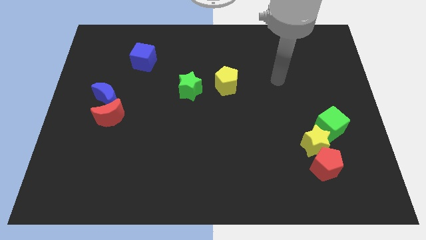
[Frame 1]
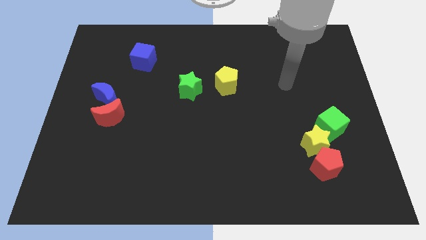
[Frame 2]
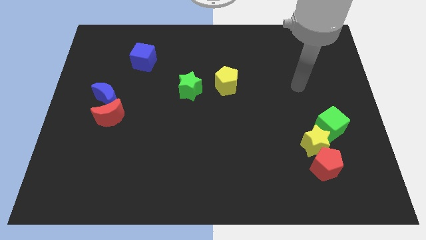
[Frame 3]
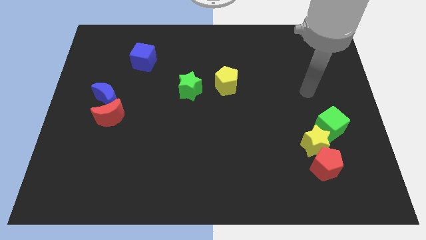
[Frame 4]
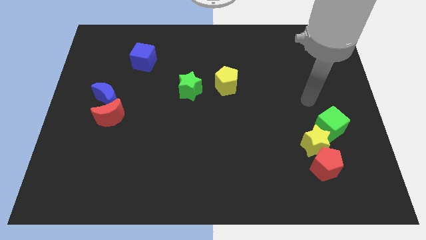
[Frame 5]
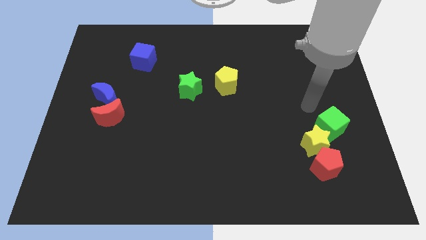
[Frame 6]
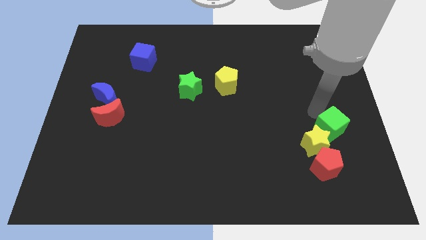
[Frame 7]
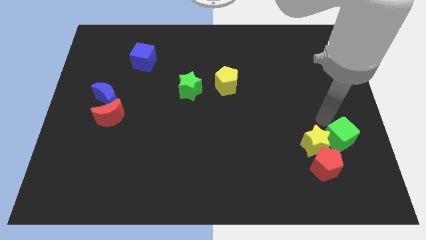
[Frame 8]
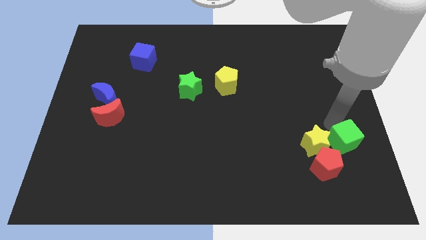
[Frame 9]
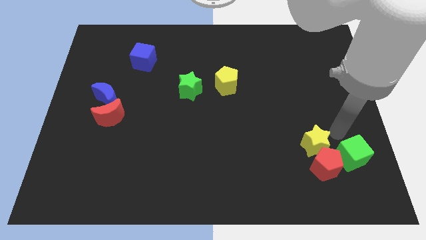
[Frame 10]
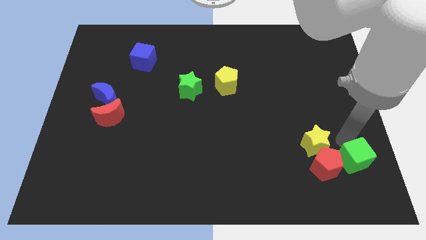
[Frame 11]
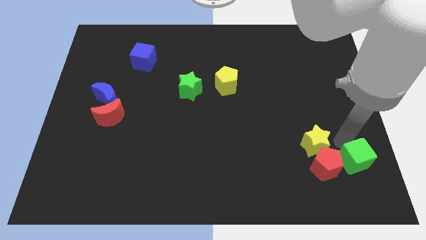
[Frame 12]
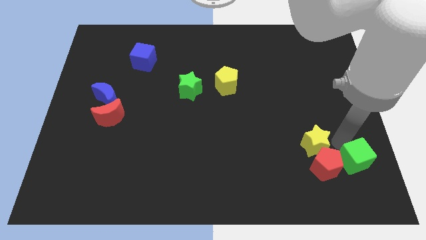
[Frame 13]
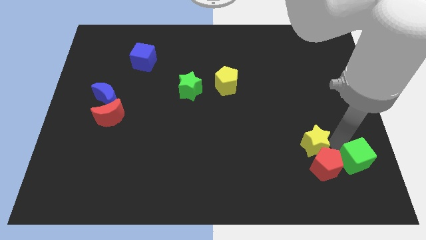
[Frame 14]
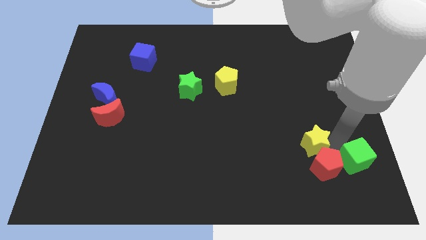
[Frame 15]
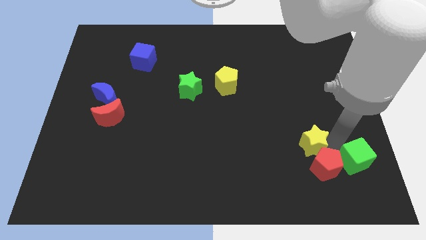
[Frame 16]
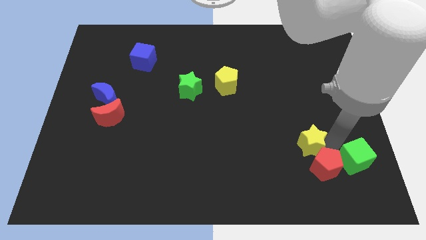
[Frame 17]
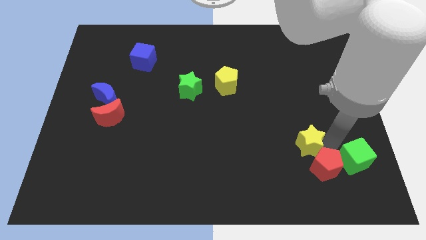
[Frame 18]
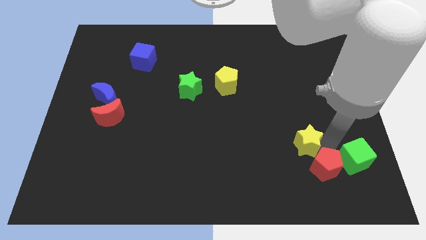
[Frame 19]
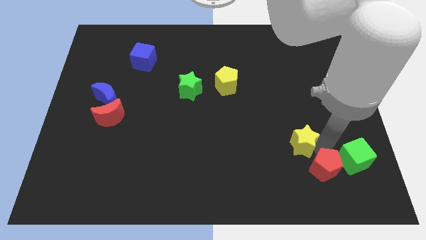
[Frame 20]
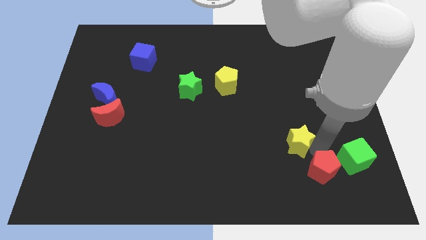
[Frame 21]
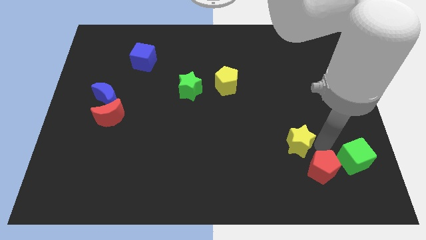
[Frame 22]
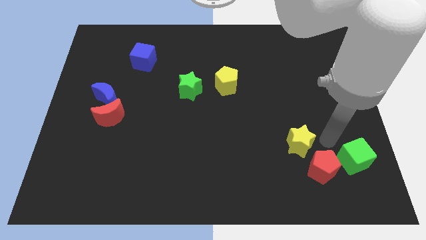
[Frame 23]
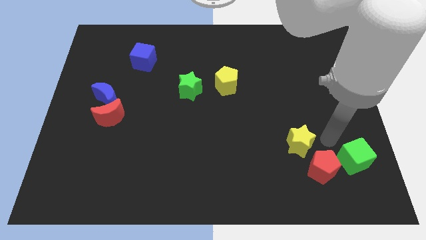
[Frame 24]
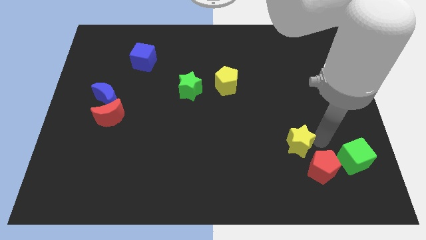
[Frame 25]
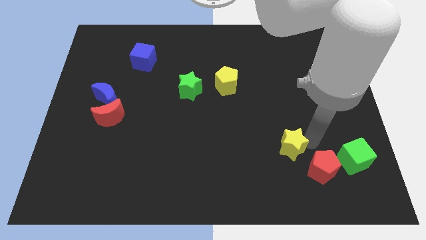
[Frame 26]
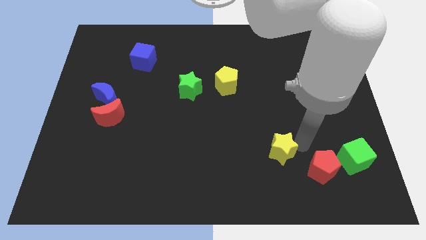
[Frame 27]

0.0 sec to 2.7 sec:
push the yellow star a little bit to the left

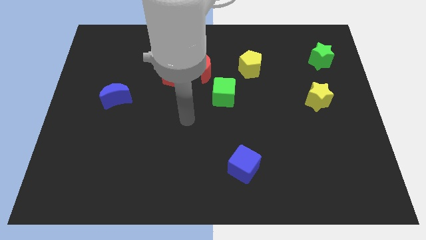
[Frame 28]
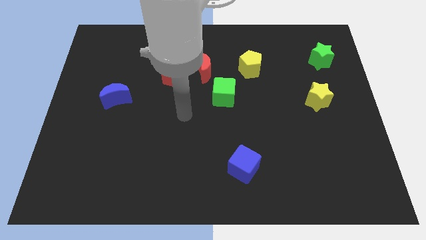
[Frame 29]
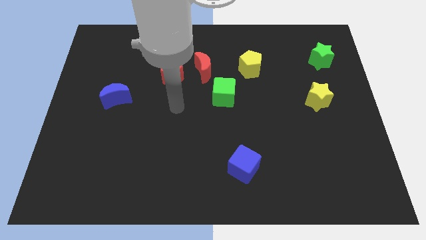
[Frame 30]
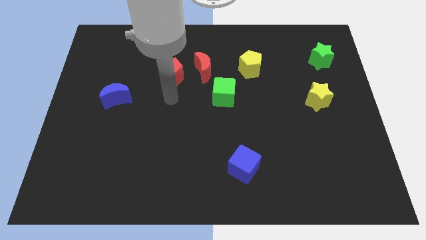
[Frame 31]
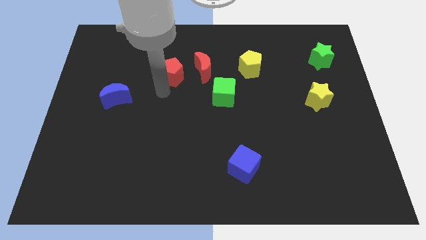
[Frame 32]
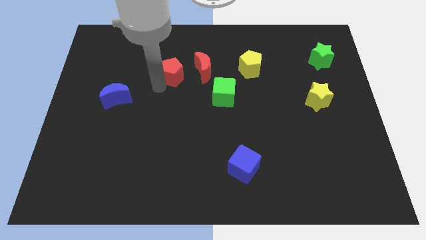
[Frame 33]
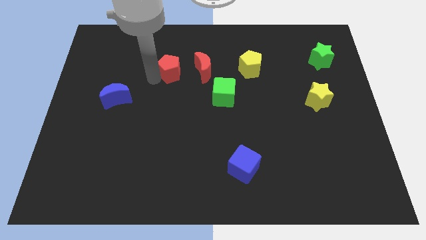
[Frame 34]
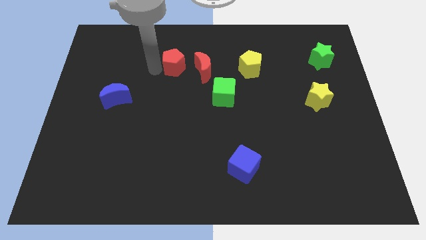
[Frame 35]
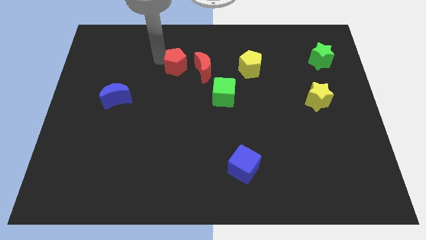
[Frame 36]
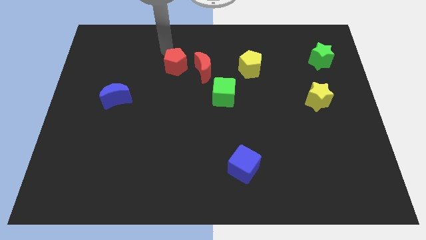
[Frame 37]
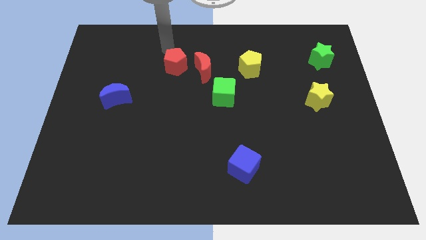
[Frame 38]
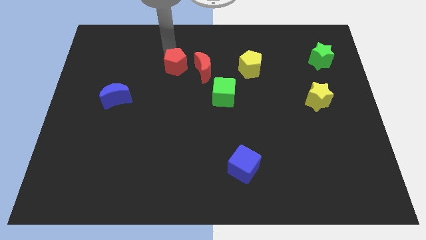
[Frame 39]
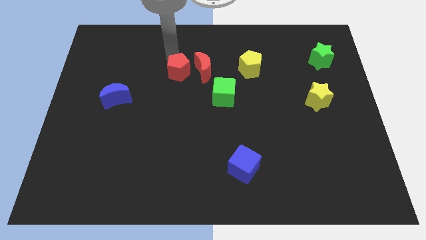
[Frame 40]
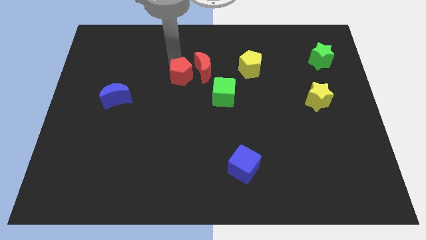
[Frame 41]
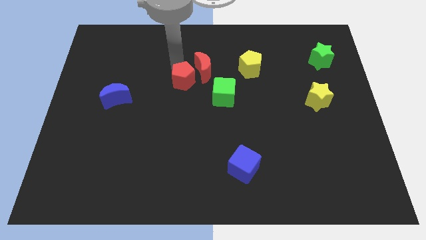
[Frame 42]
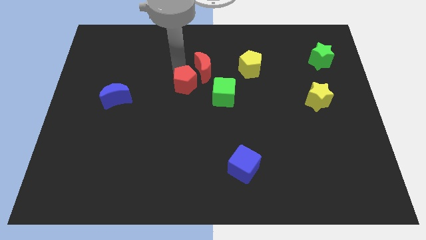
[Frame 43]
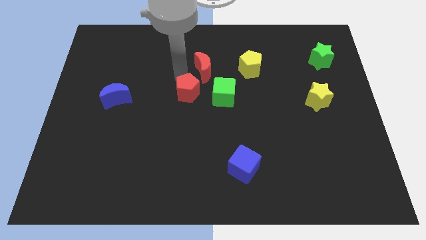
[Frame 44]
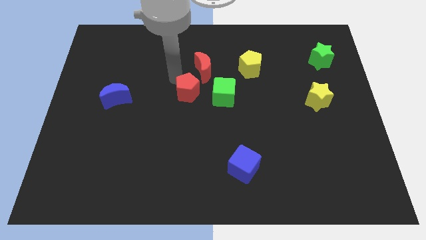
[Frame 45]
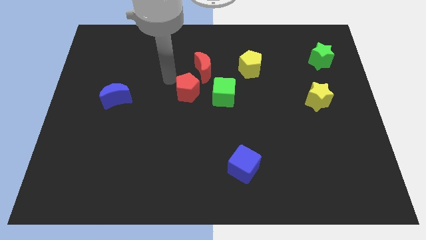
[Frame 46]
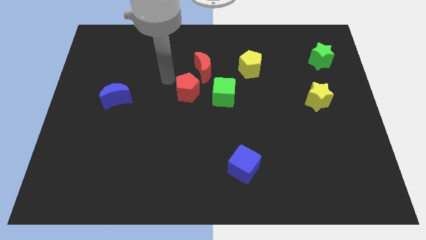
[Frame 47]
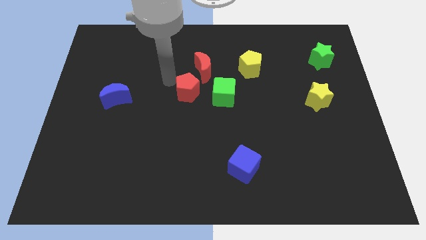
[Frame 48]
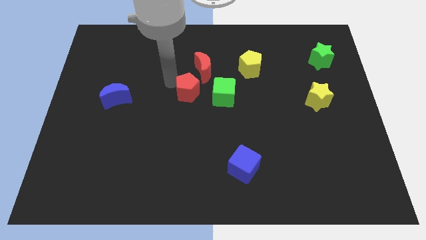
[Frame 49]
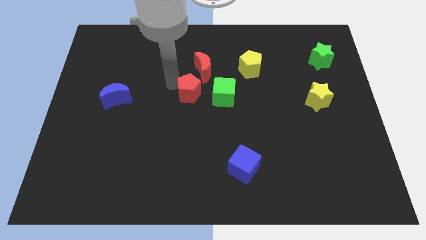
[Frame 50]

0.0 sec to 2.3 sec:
slightly slide the red pentagon down and to the right

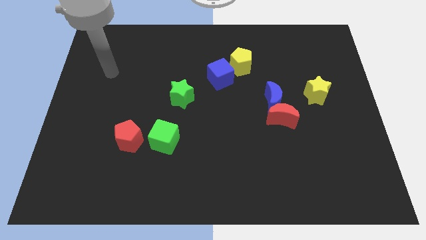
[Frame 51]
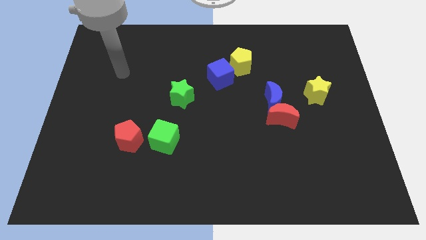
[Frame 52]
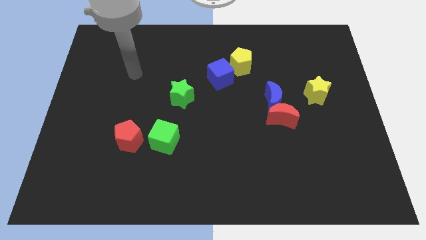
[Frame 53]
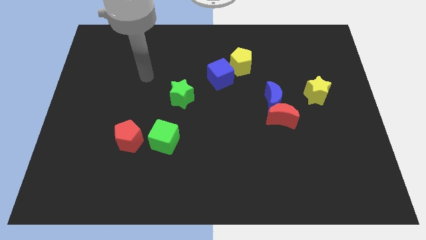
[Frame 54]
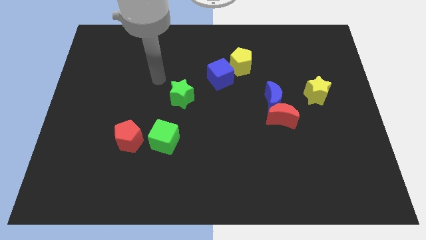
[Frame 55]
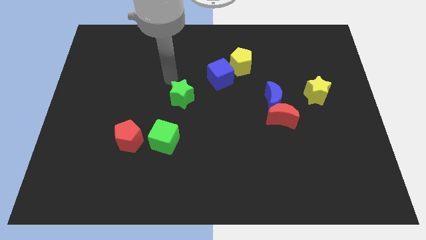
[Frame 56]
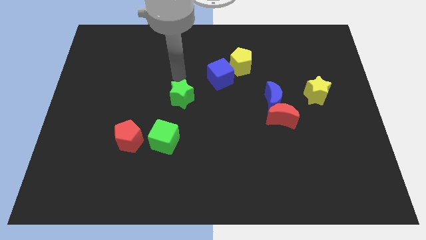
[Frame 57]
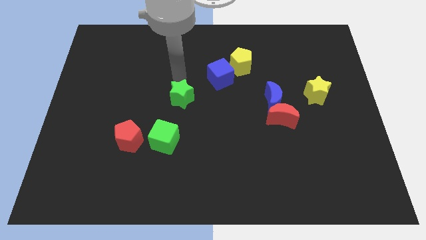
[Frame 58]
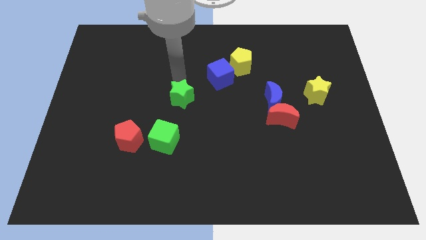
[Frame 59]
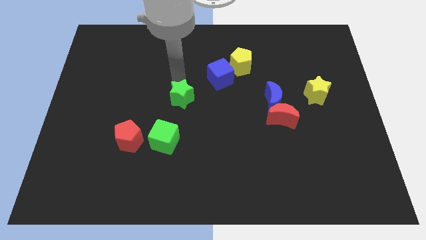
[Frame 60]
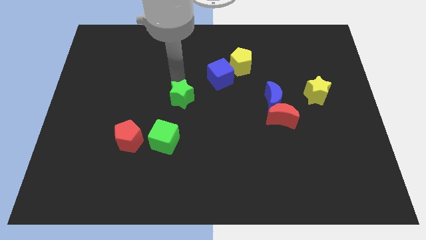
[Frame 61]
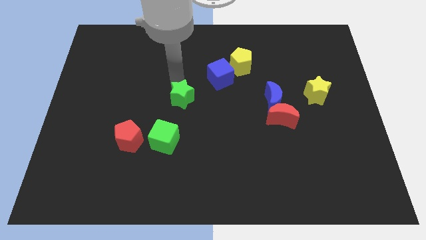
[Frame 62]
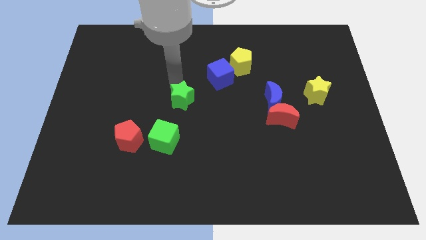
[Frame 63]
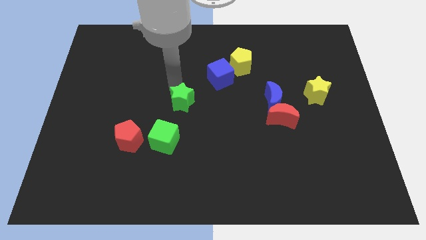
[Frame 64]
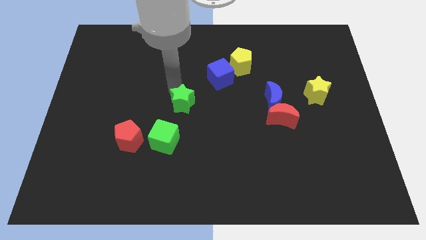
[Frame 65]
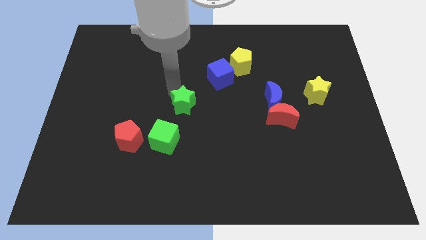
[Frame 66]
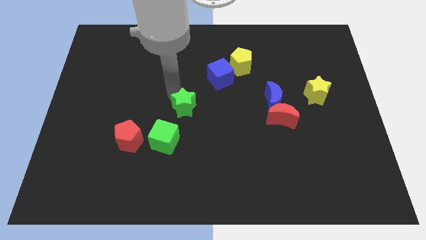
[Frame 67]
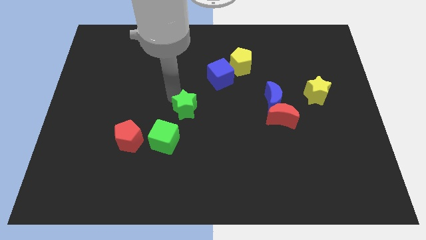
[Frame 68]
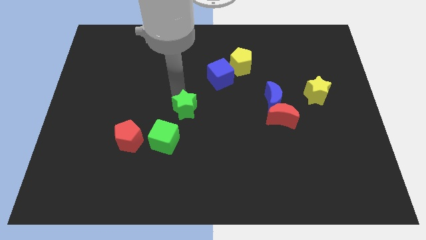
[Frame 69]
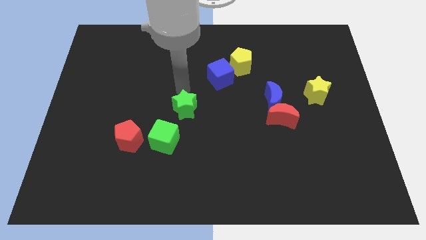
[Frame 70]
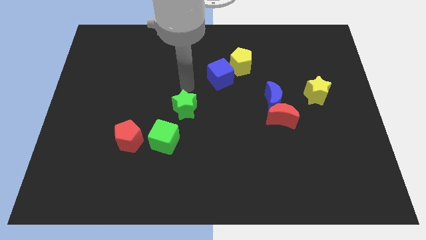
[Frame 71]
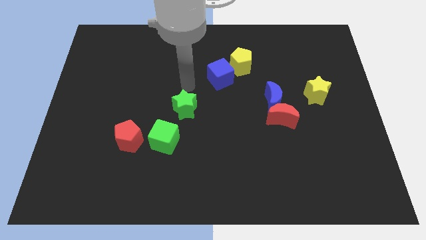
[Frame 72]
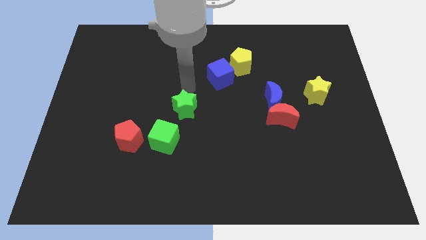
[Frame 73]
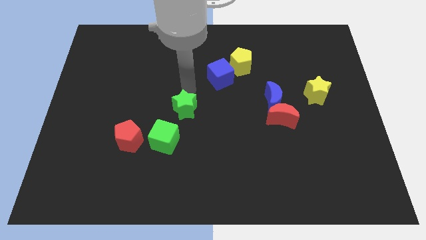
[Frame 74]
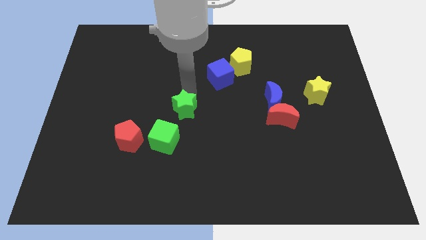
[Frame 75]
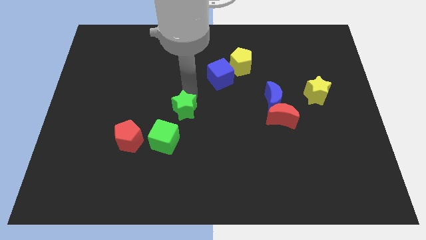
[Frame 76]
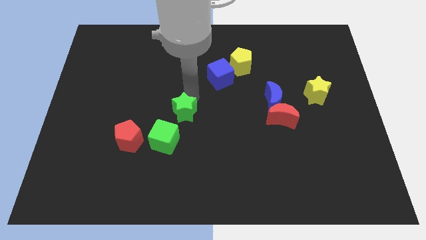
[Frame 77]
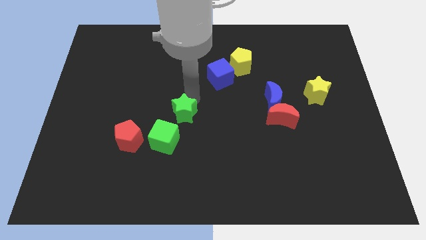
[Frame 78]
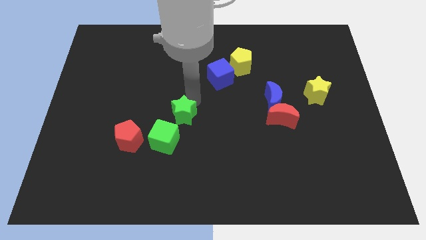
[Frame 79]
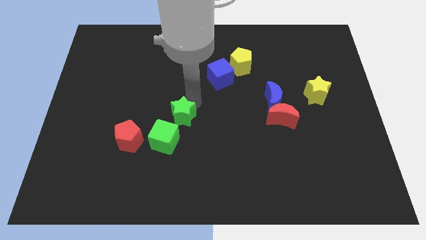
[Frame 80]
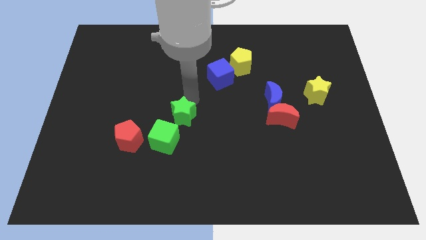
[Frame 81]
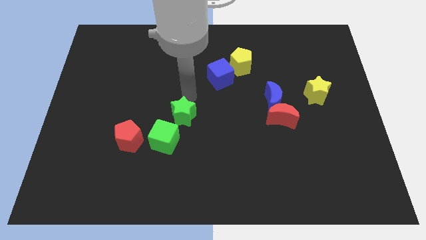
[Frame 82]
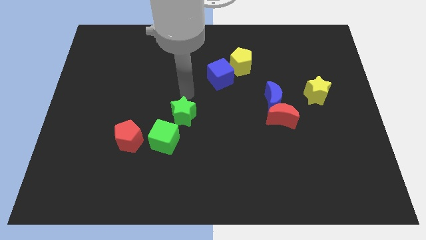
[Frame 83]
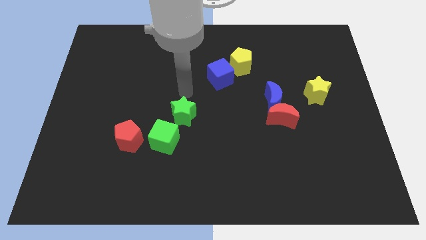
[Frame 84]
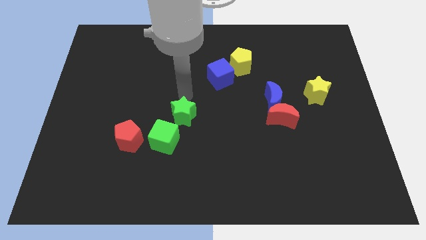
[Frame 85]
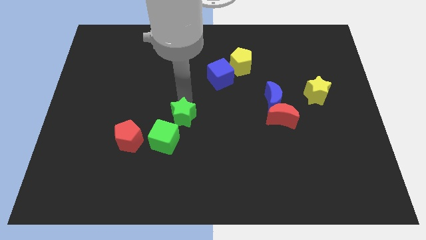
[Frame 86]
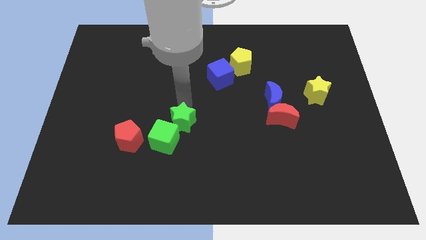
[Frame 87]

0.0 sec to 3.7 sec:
slightly move the green star down
